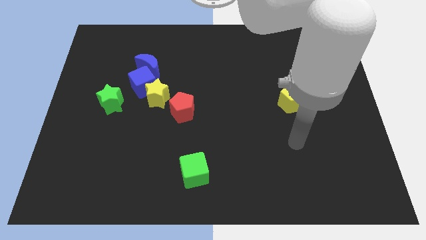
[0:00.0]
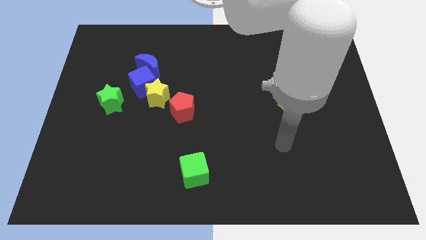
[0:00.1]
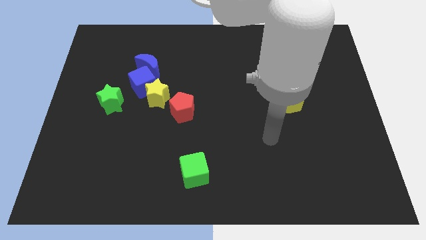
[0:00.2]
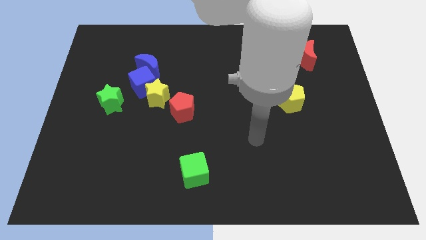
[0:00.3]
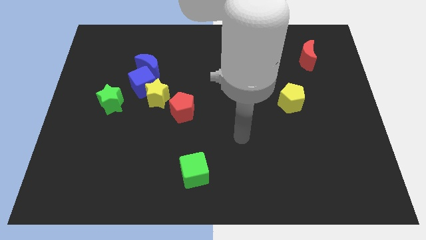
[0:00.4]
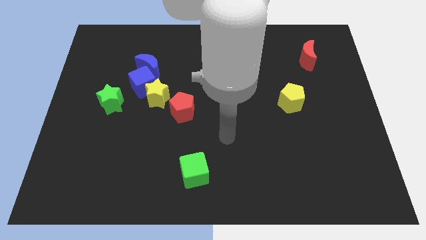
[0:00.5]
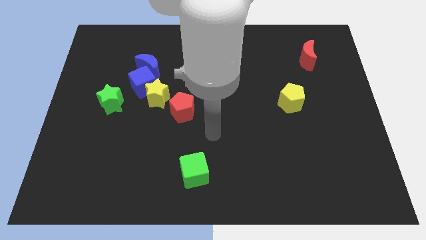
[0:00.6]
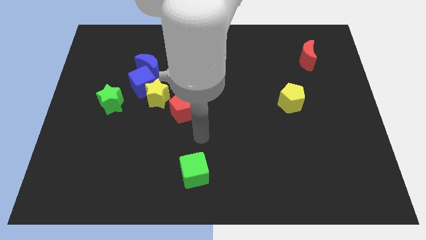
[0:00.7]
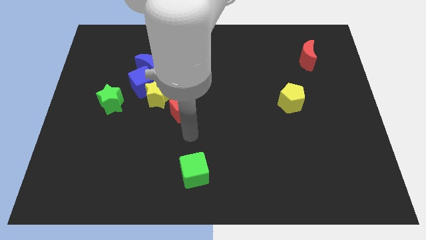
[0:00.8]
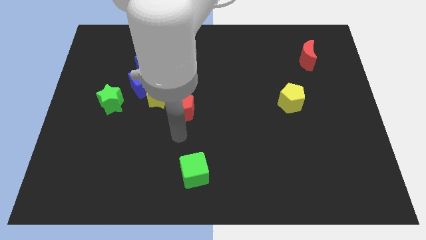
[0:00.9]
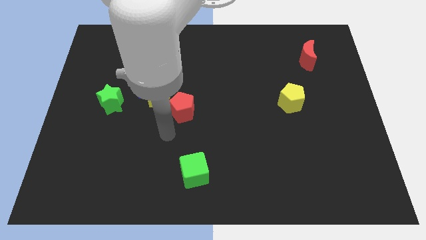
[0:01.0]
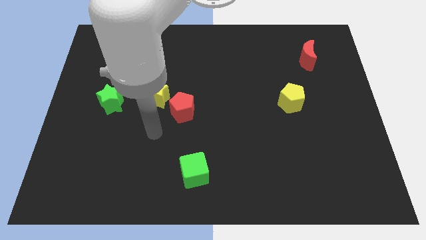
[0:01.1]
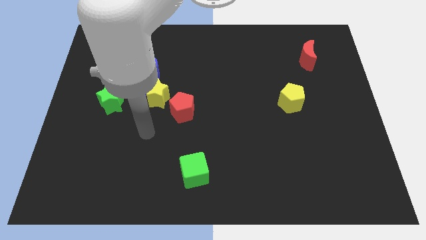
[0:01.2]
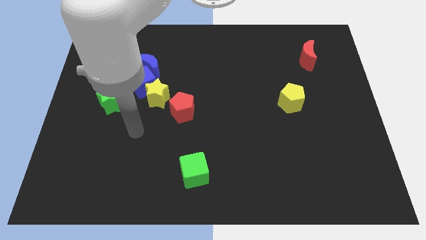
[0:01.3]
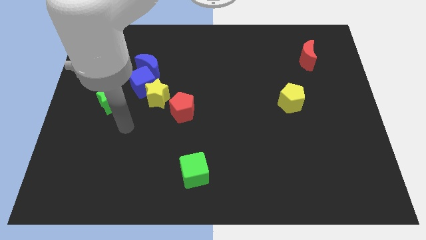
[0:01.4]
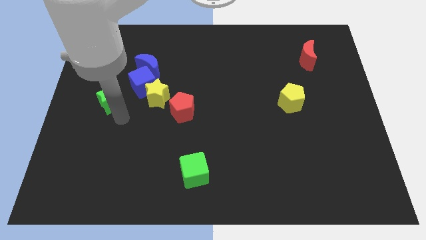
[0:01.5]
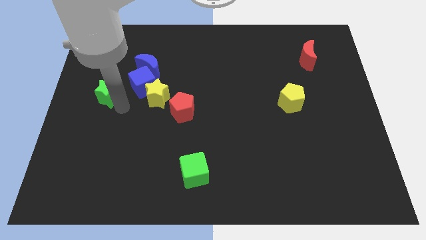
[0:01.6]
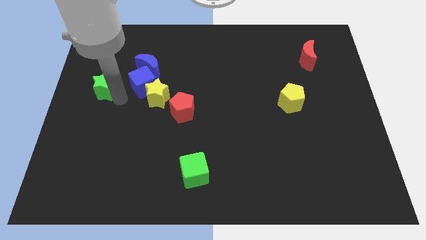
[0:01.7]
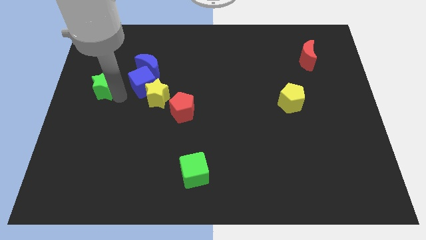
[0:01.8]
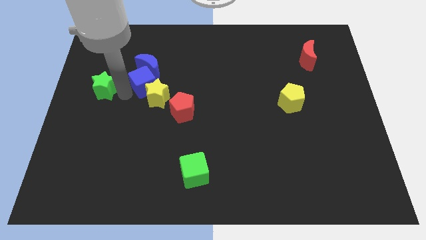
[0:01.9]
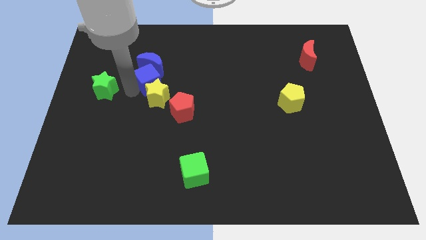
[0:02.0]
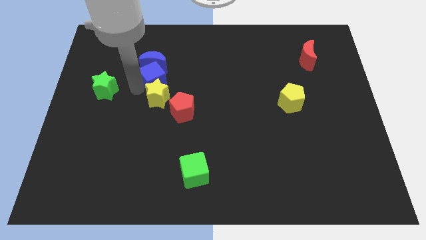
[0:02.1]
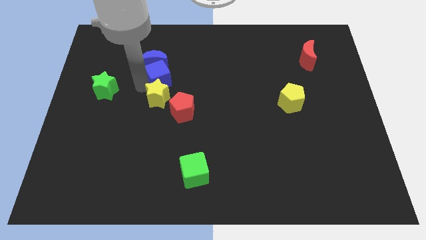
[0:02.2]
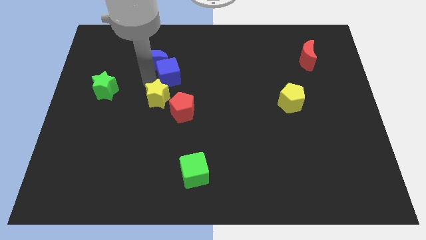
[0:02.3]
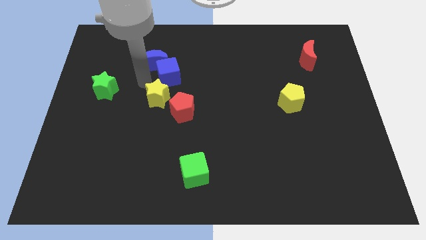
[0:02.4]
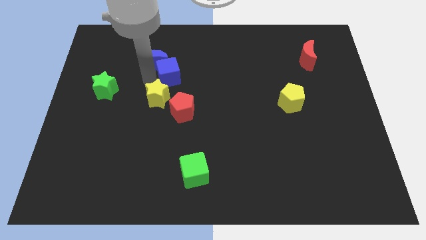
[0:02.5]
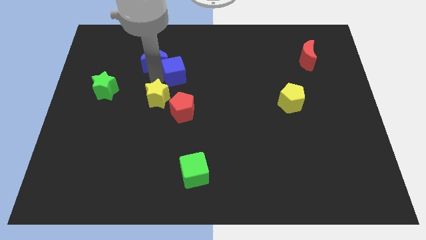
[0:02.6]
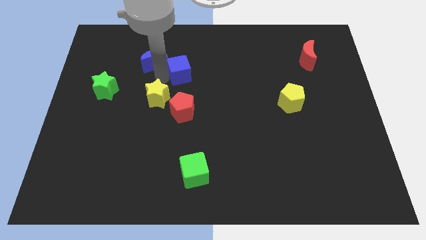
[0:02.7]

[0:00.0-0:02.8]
separate the blue cube from the group of blocks

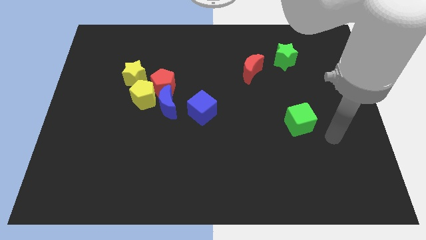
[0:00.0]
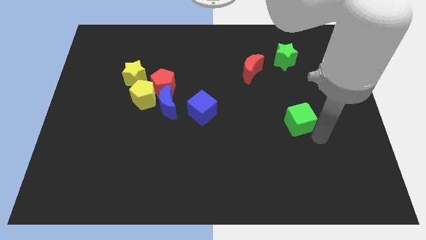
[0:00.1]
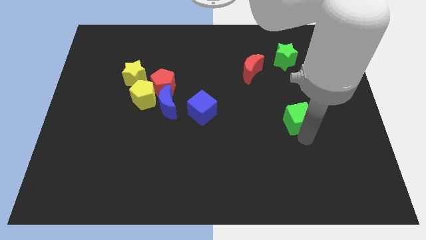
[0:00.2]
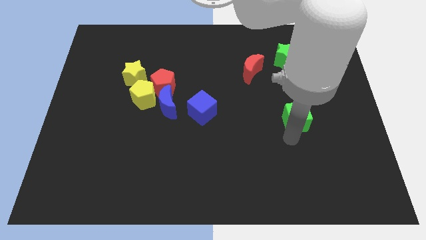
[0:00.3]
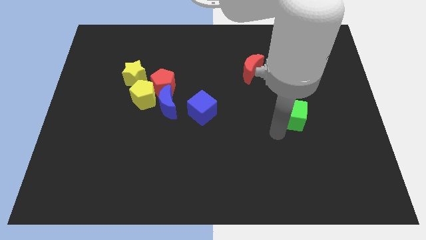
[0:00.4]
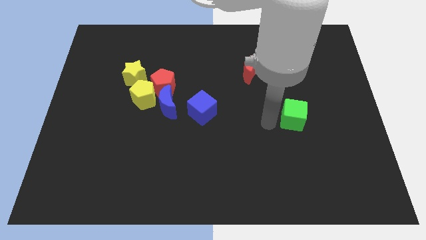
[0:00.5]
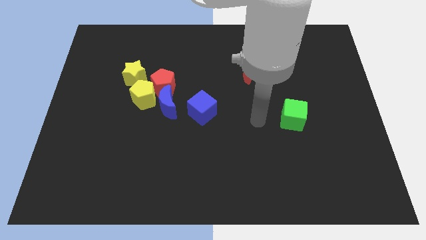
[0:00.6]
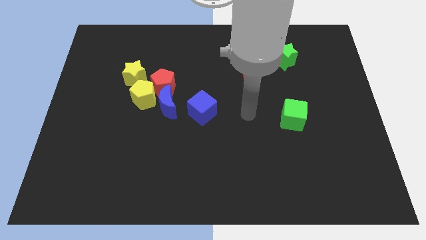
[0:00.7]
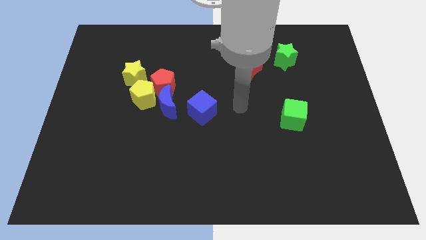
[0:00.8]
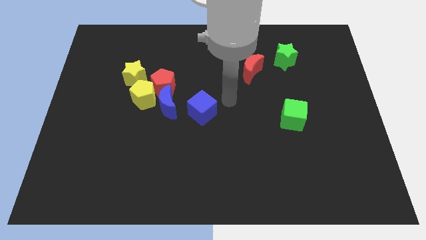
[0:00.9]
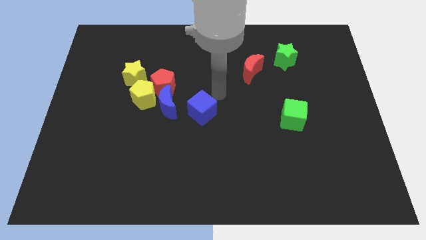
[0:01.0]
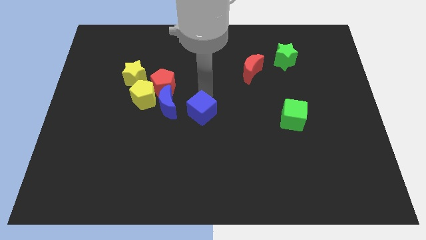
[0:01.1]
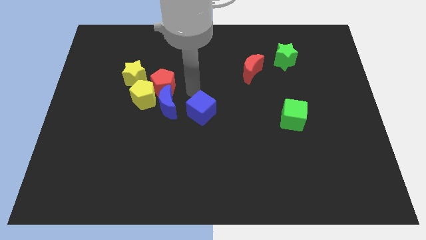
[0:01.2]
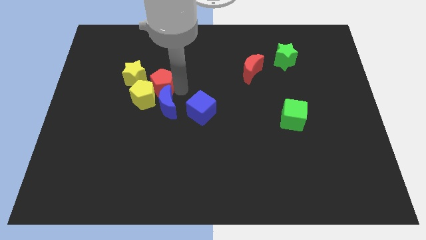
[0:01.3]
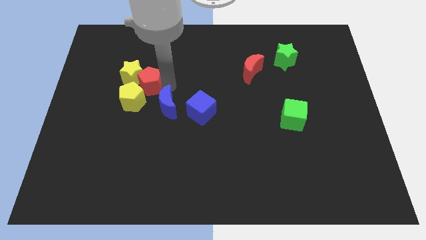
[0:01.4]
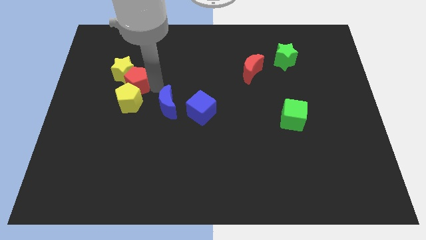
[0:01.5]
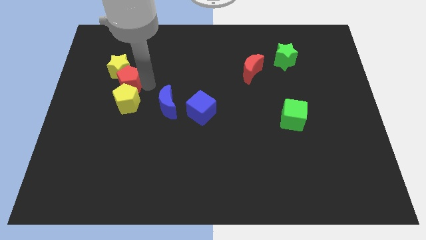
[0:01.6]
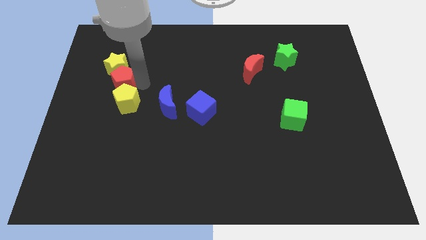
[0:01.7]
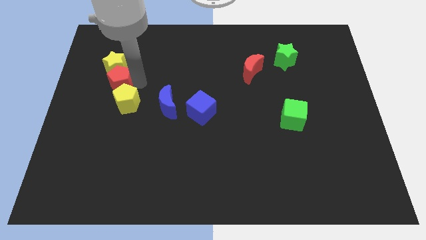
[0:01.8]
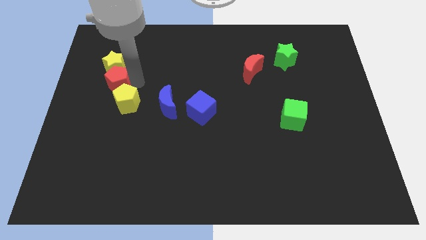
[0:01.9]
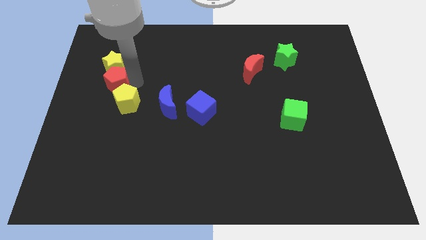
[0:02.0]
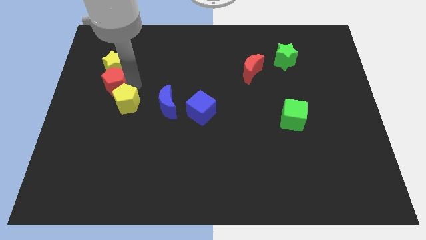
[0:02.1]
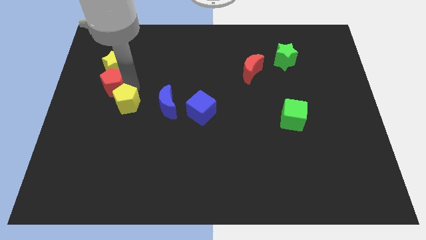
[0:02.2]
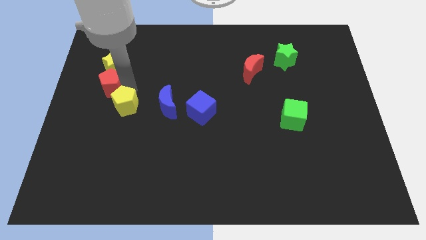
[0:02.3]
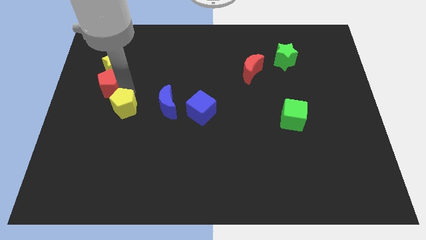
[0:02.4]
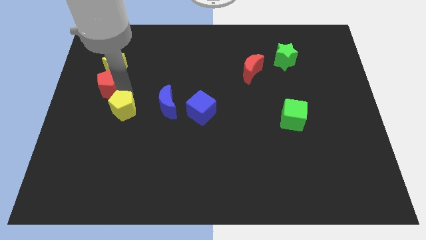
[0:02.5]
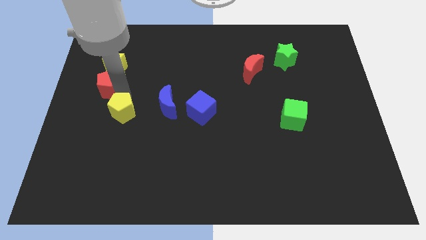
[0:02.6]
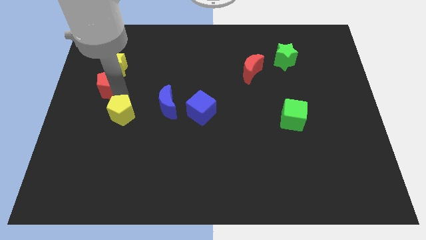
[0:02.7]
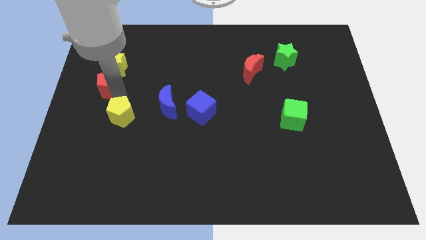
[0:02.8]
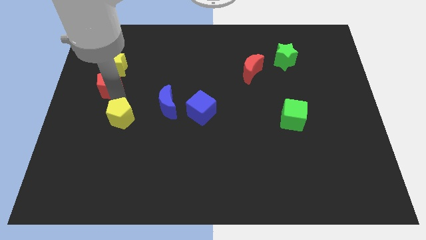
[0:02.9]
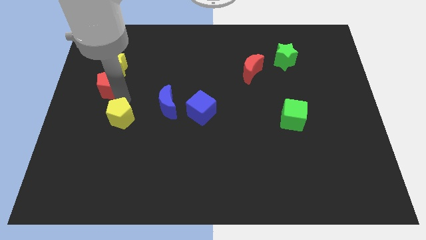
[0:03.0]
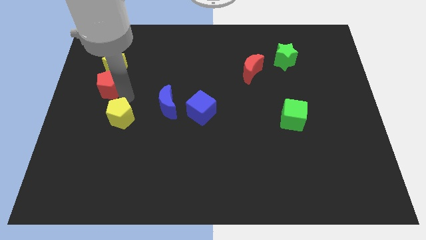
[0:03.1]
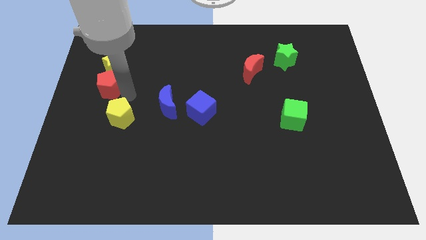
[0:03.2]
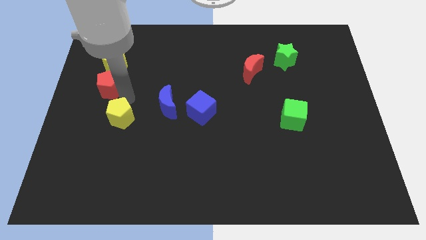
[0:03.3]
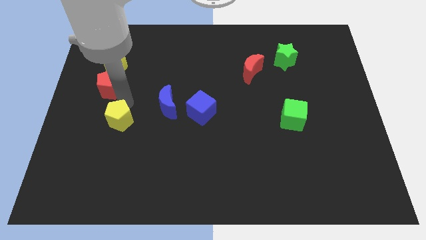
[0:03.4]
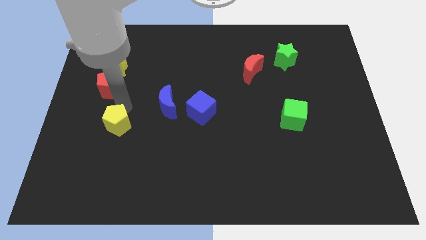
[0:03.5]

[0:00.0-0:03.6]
pull the yellow pentagon apart from the clump

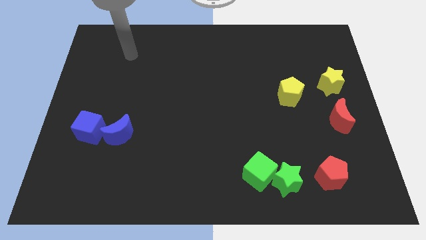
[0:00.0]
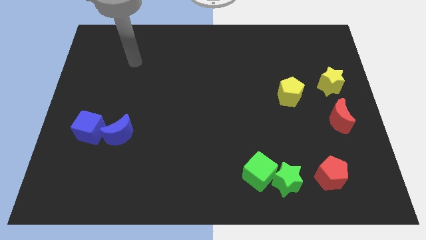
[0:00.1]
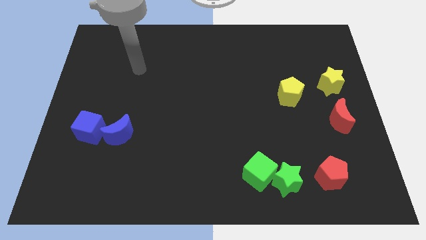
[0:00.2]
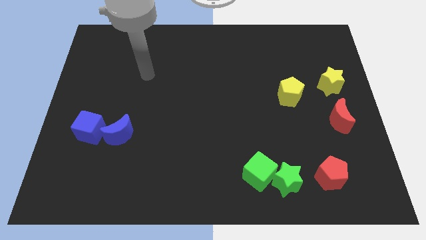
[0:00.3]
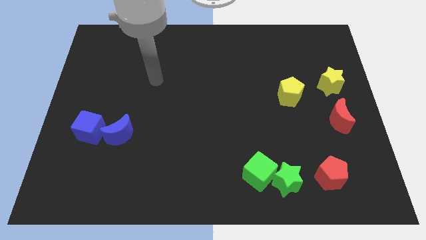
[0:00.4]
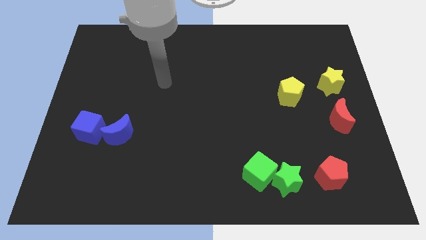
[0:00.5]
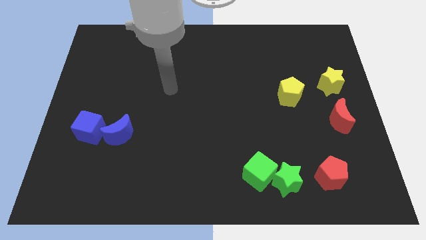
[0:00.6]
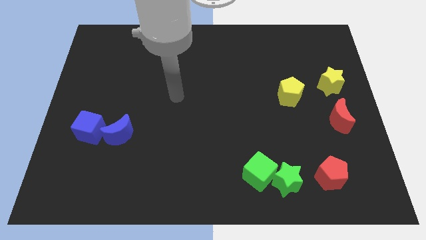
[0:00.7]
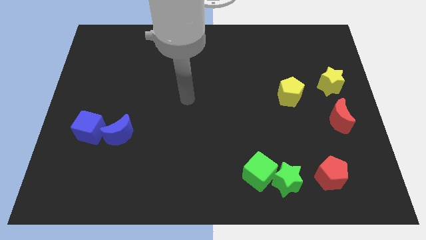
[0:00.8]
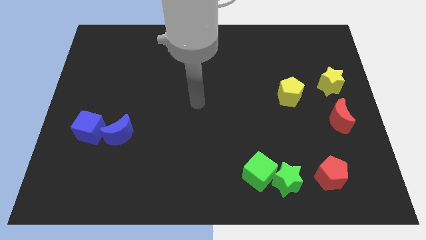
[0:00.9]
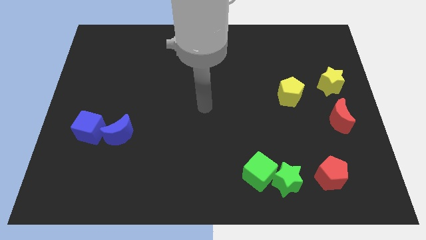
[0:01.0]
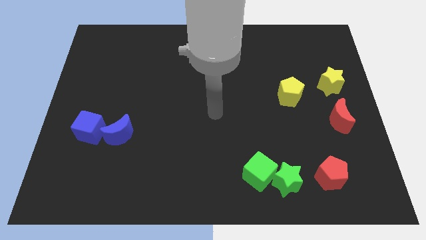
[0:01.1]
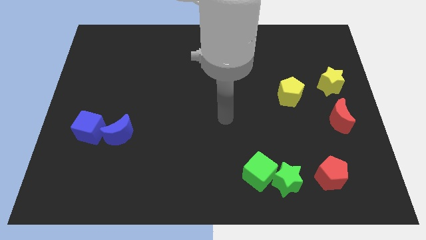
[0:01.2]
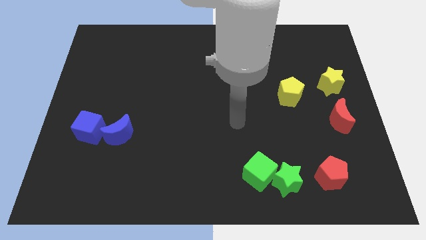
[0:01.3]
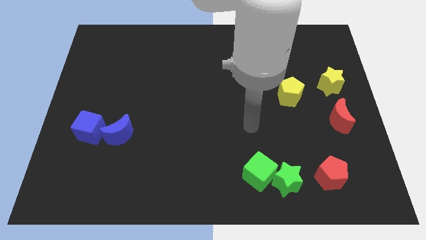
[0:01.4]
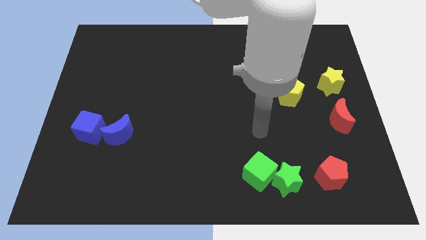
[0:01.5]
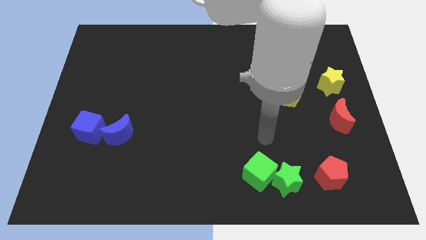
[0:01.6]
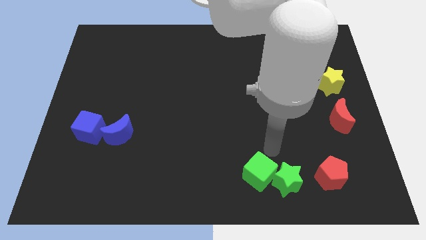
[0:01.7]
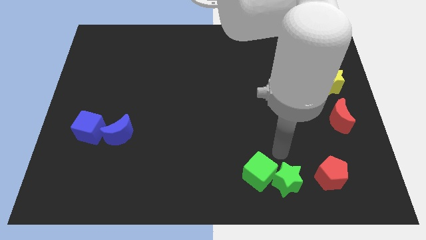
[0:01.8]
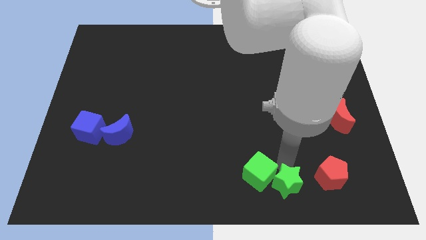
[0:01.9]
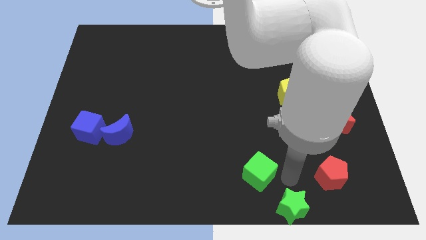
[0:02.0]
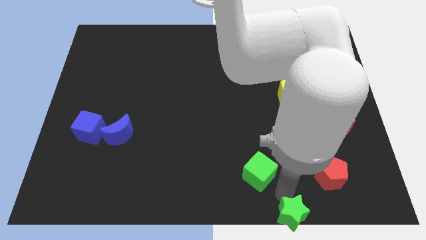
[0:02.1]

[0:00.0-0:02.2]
separate the green cube from the green star

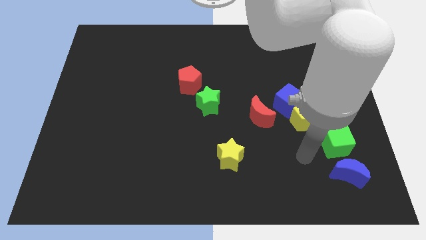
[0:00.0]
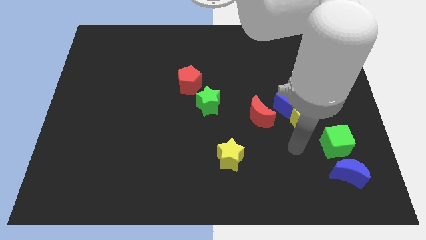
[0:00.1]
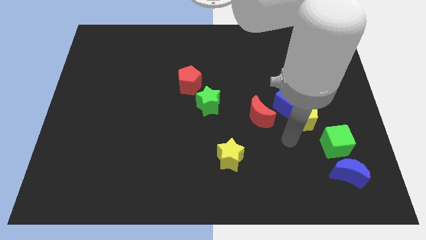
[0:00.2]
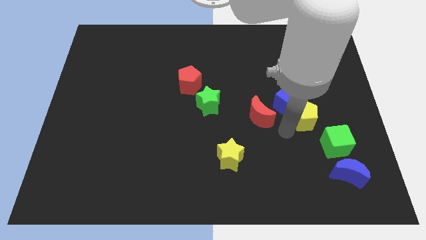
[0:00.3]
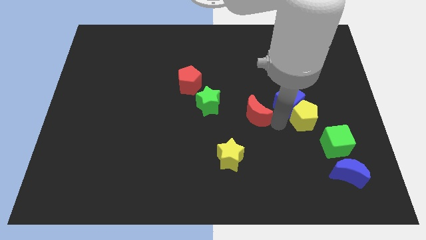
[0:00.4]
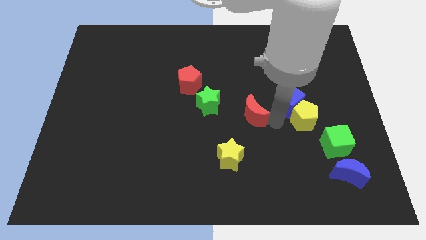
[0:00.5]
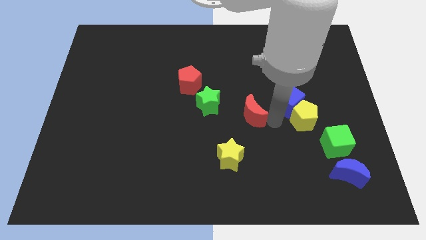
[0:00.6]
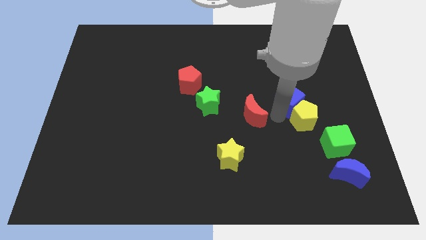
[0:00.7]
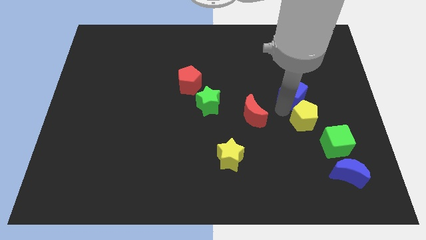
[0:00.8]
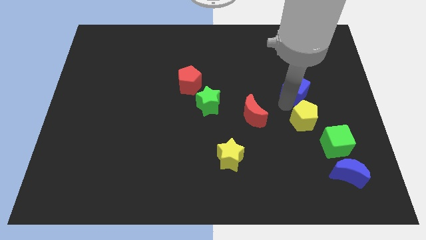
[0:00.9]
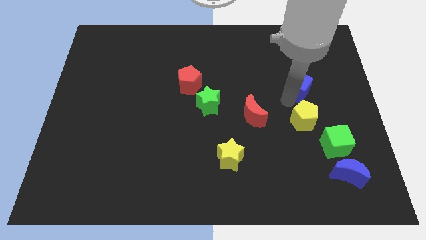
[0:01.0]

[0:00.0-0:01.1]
separate the blue cube from the yellow pentagon and red moon
